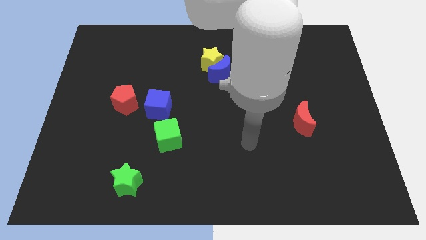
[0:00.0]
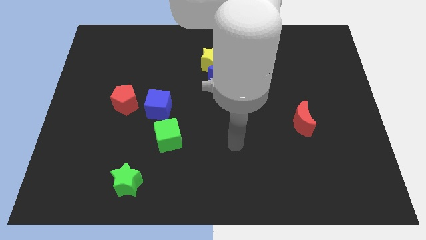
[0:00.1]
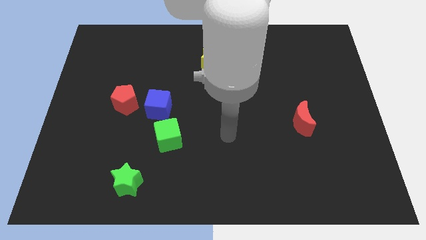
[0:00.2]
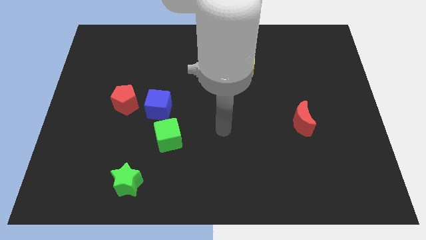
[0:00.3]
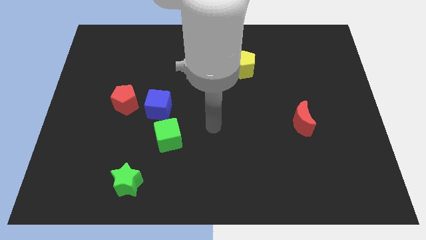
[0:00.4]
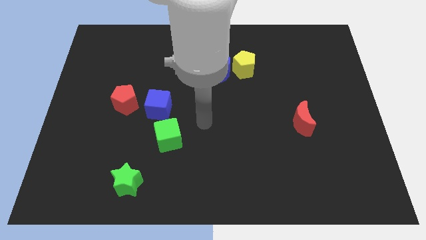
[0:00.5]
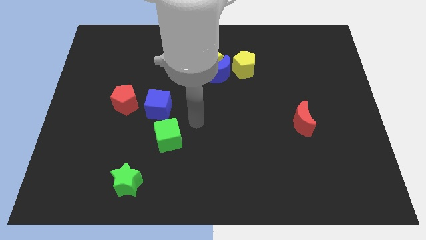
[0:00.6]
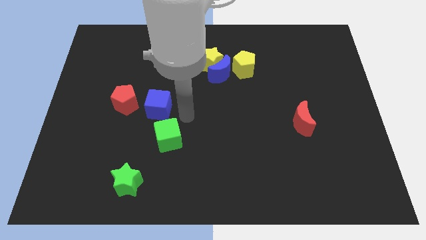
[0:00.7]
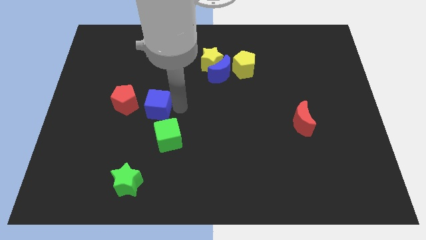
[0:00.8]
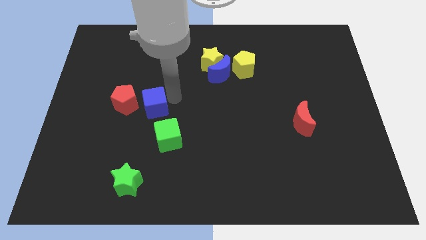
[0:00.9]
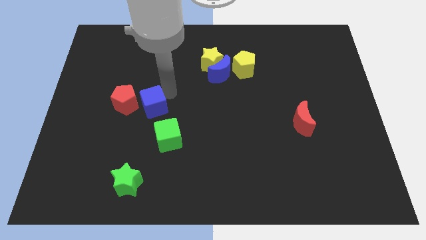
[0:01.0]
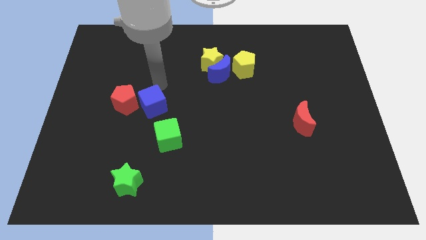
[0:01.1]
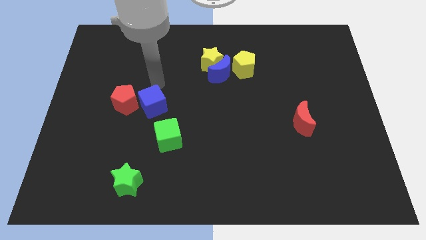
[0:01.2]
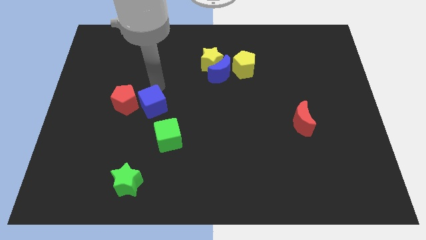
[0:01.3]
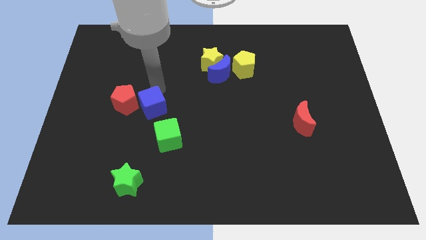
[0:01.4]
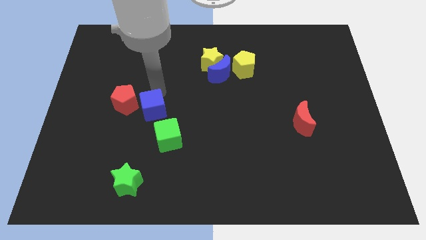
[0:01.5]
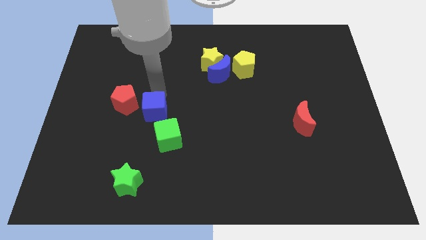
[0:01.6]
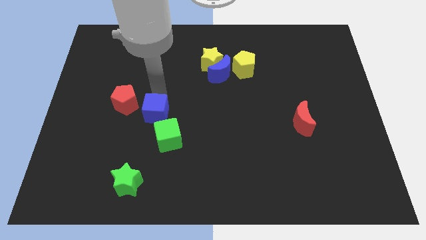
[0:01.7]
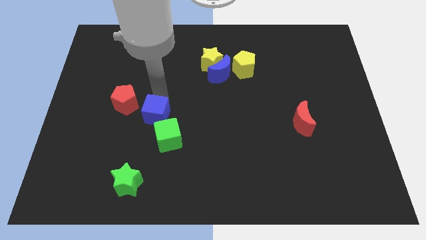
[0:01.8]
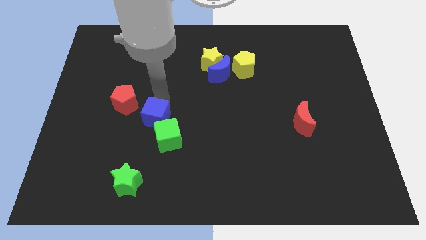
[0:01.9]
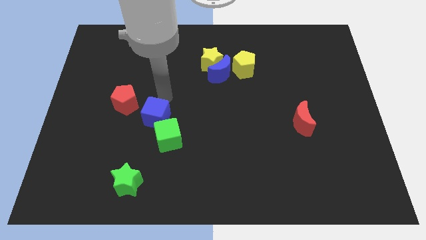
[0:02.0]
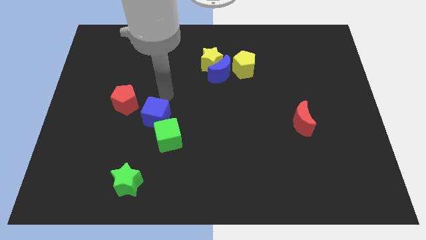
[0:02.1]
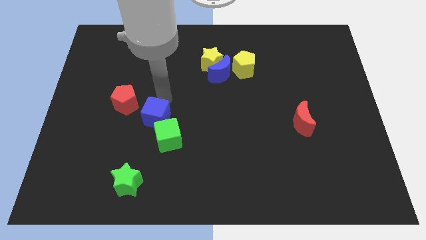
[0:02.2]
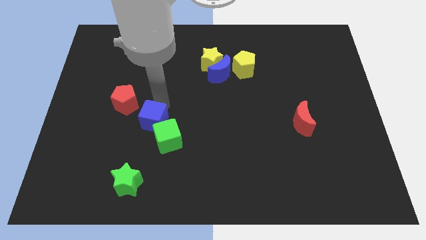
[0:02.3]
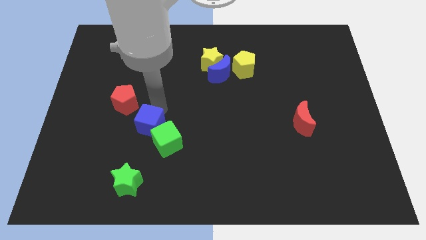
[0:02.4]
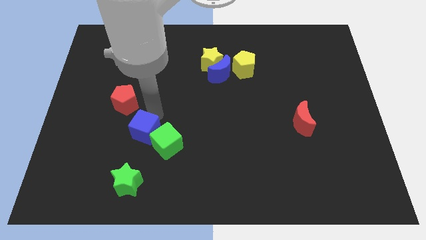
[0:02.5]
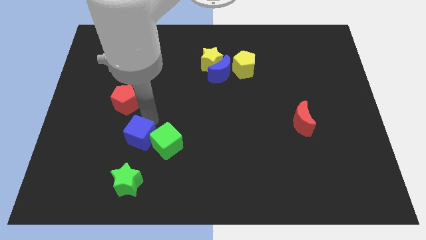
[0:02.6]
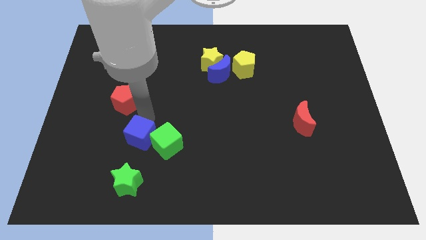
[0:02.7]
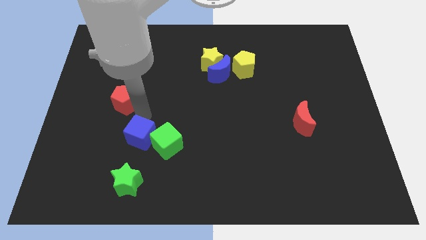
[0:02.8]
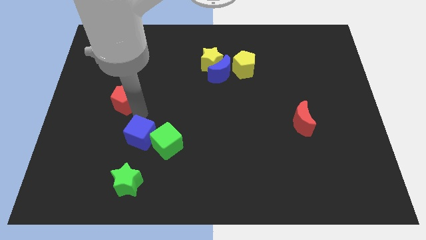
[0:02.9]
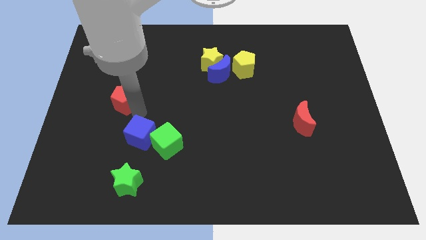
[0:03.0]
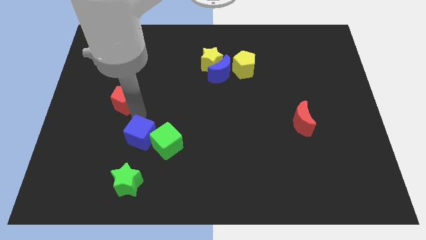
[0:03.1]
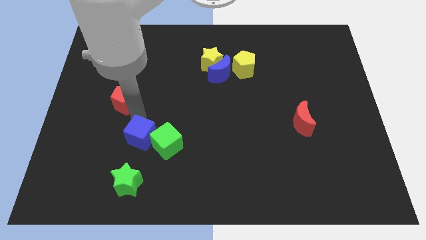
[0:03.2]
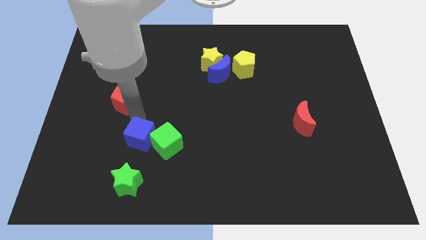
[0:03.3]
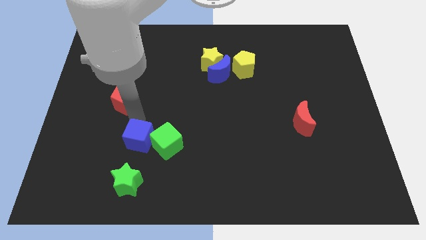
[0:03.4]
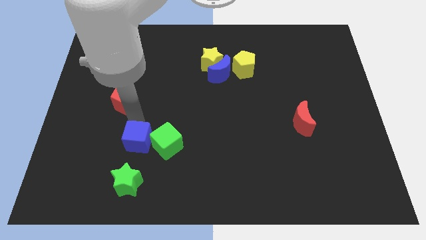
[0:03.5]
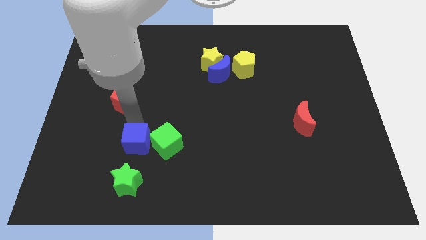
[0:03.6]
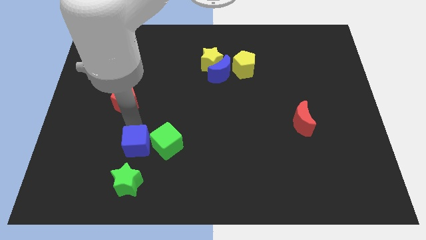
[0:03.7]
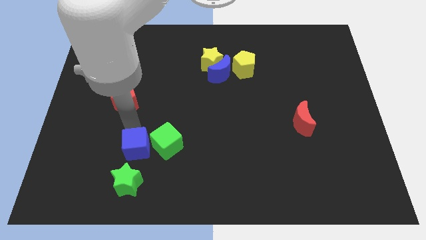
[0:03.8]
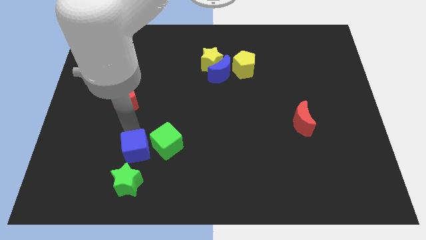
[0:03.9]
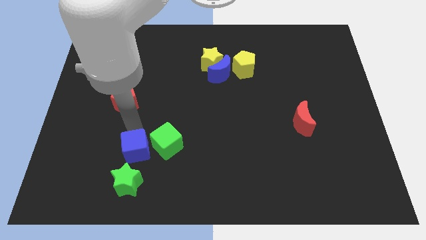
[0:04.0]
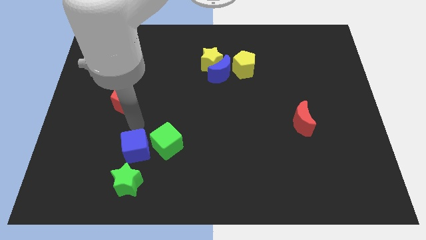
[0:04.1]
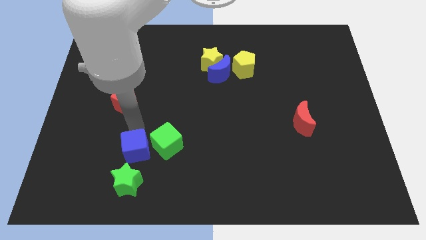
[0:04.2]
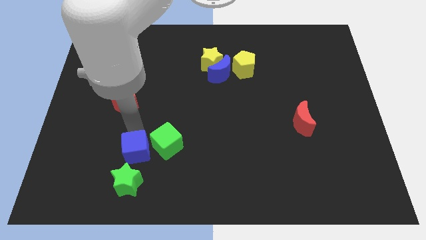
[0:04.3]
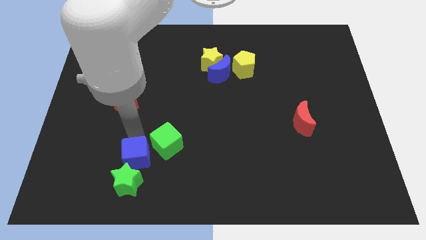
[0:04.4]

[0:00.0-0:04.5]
slide the blue cube to the green star

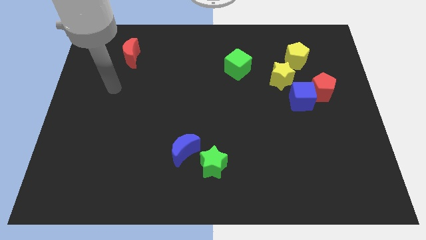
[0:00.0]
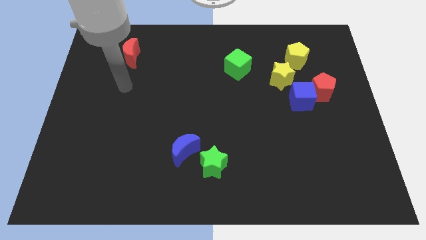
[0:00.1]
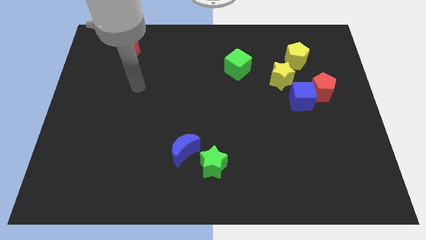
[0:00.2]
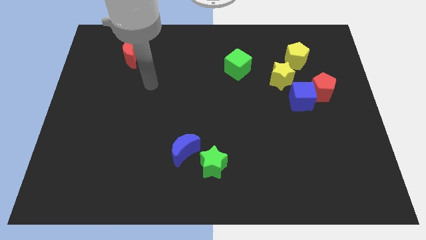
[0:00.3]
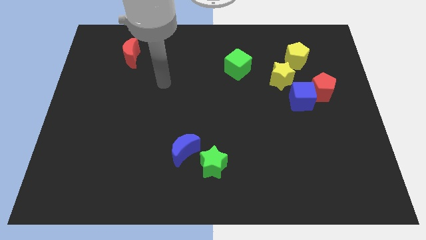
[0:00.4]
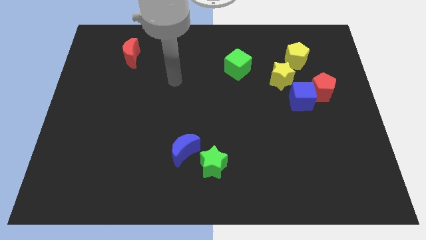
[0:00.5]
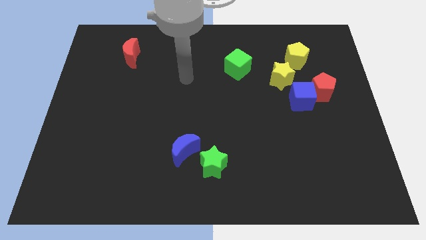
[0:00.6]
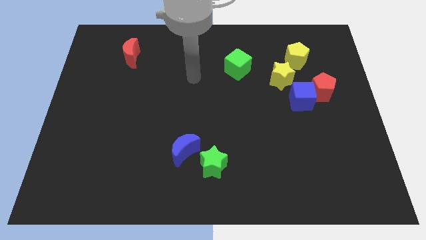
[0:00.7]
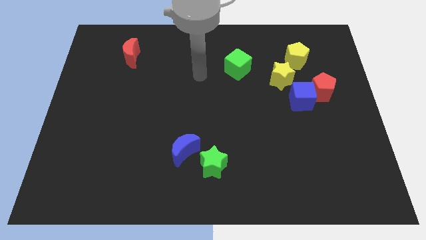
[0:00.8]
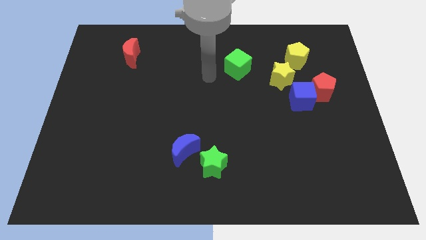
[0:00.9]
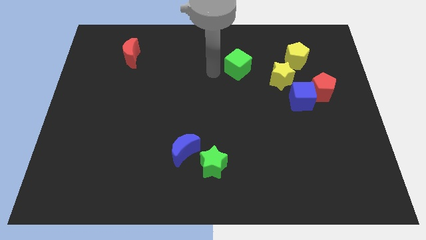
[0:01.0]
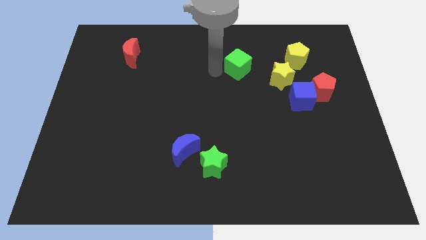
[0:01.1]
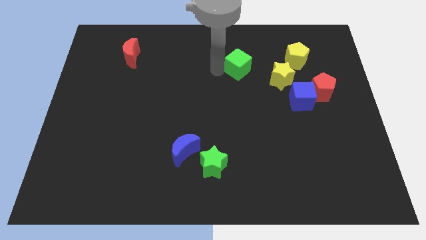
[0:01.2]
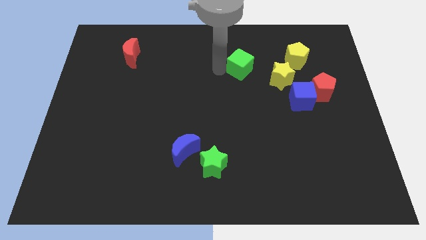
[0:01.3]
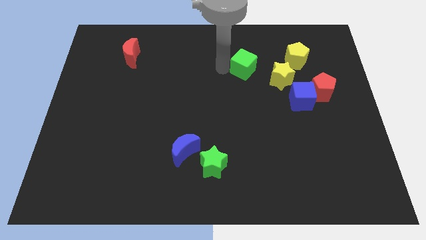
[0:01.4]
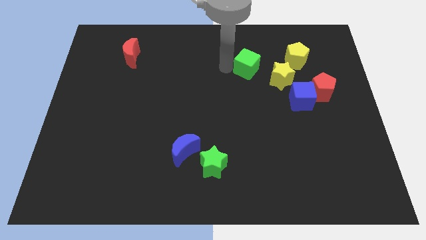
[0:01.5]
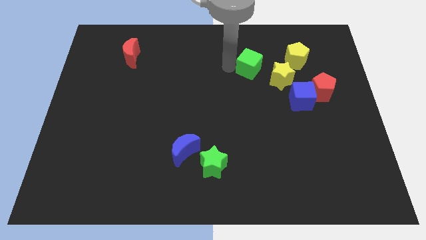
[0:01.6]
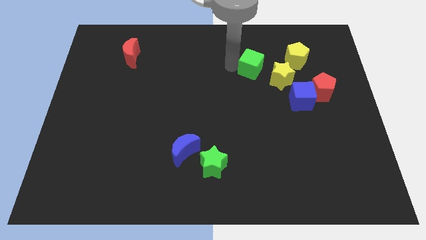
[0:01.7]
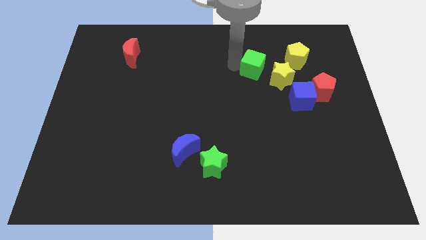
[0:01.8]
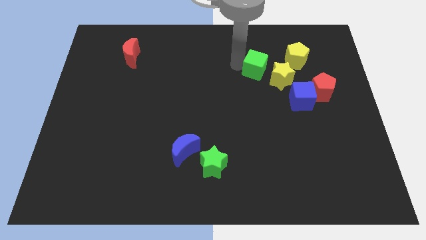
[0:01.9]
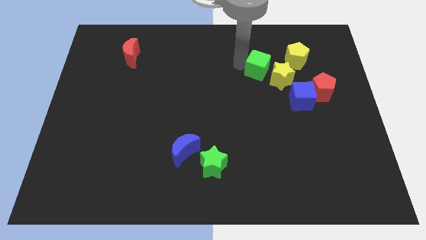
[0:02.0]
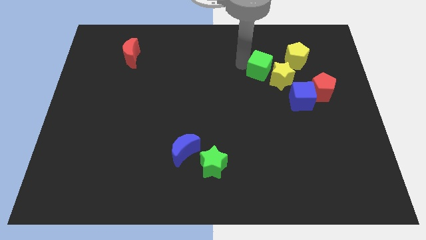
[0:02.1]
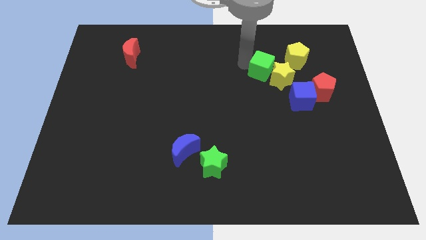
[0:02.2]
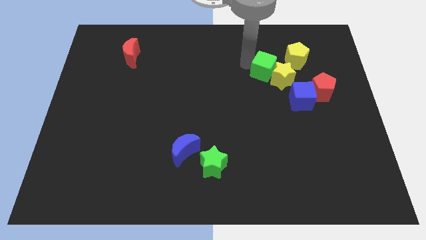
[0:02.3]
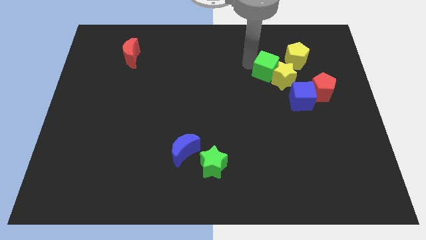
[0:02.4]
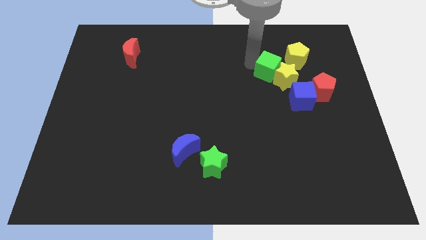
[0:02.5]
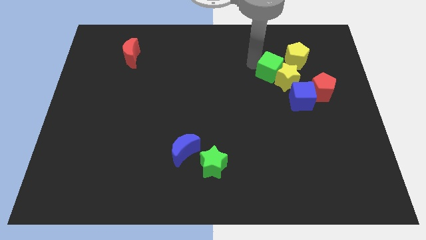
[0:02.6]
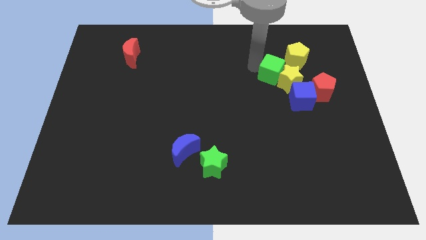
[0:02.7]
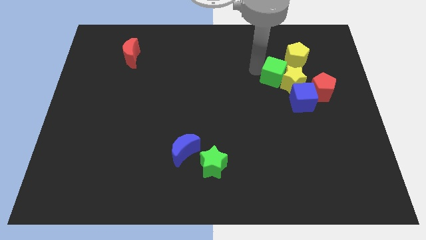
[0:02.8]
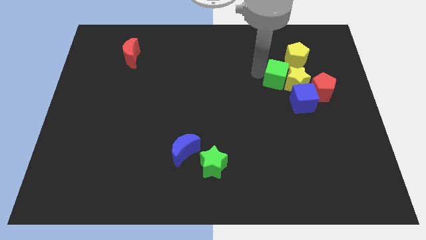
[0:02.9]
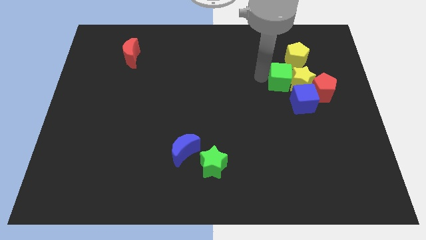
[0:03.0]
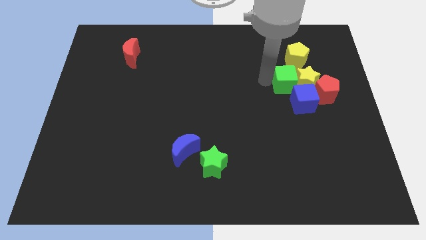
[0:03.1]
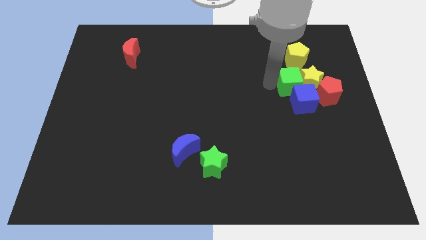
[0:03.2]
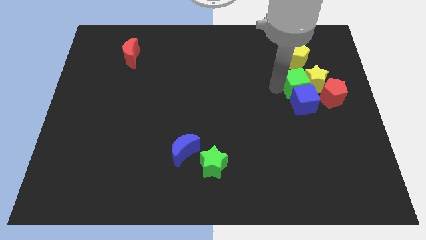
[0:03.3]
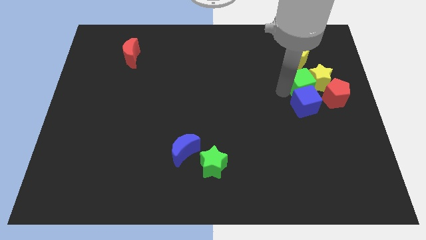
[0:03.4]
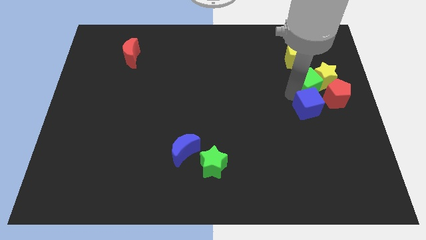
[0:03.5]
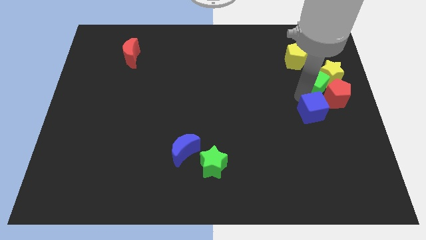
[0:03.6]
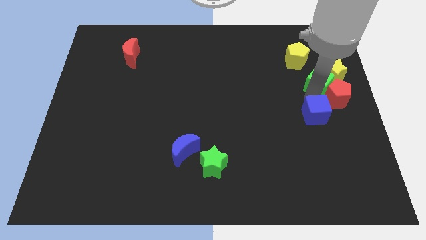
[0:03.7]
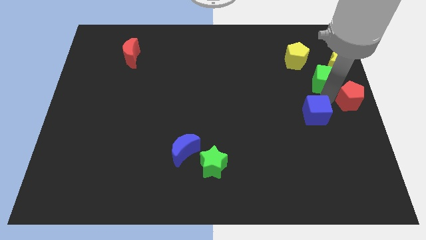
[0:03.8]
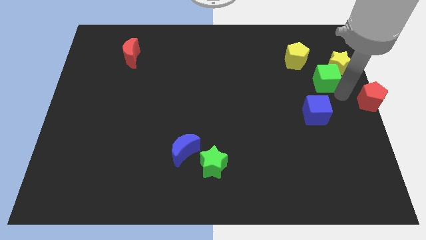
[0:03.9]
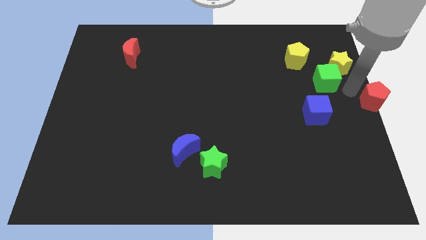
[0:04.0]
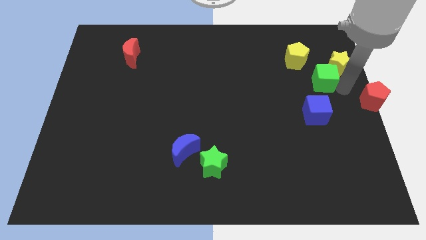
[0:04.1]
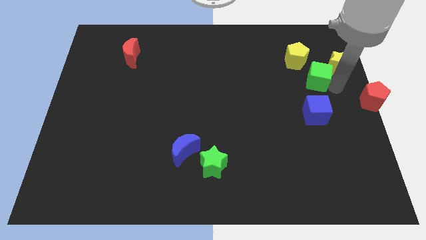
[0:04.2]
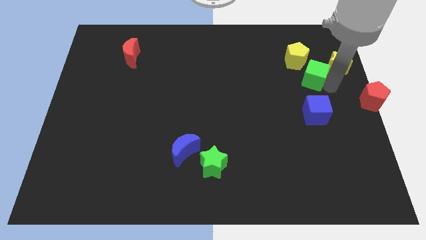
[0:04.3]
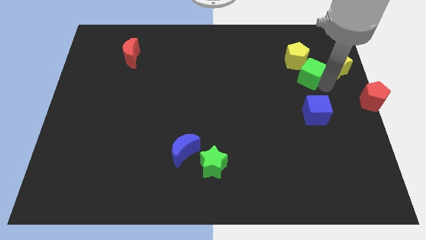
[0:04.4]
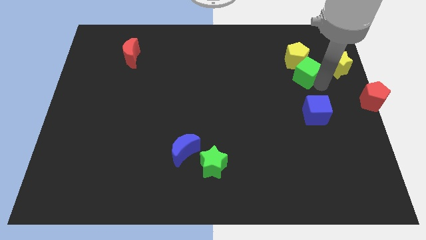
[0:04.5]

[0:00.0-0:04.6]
push the green cube to the yellow pentagon
